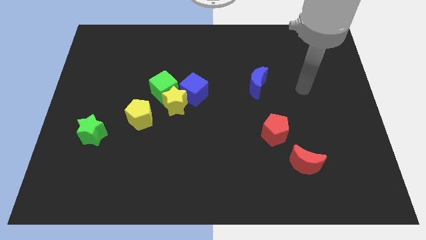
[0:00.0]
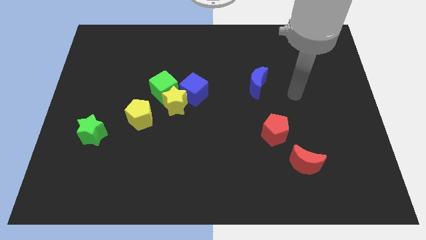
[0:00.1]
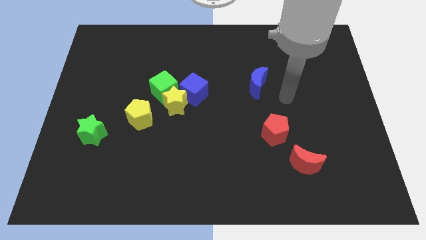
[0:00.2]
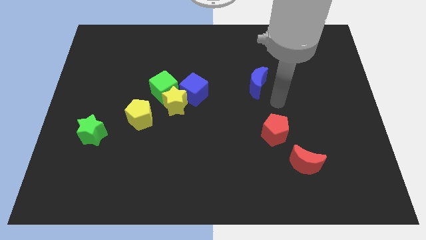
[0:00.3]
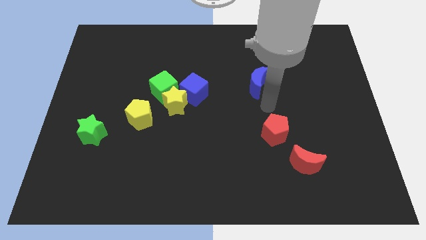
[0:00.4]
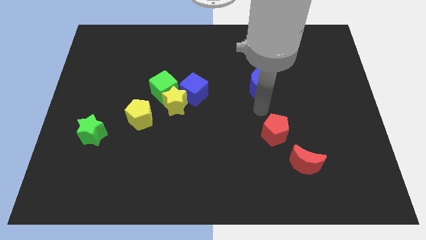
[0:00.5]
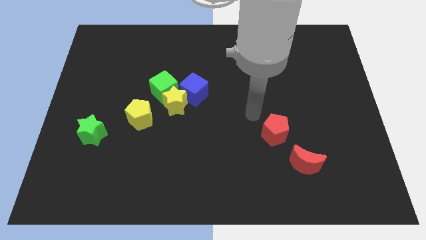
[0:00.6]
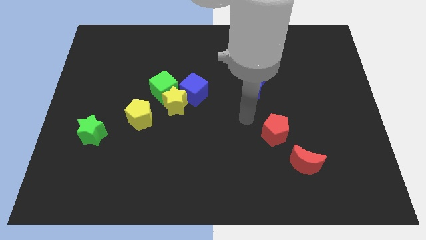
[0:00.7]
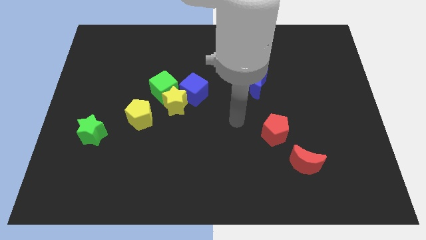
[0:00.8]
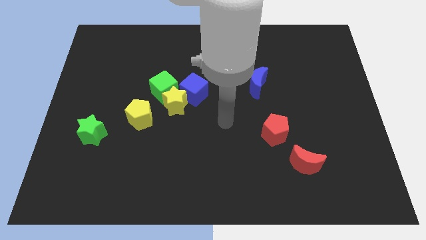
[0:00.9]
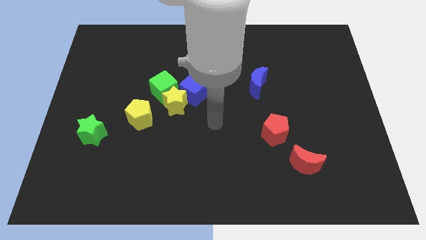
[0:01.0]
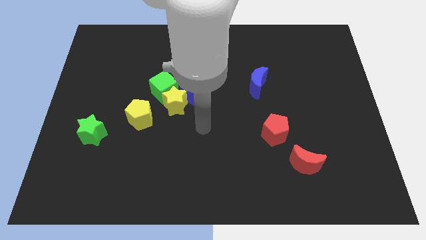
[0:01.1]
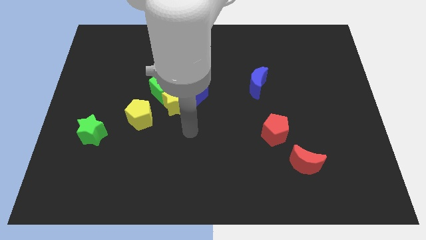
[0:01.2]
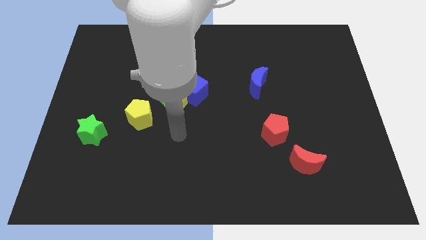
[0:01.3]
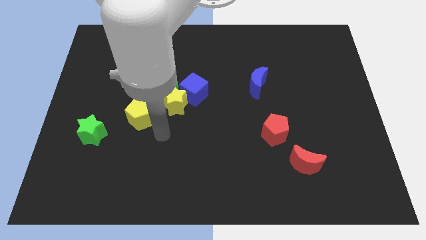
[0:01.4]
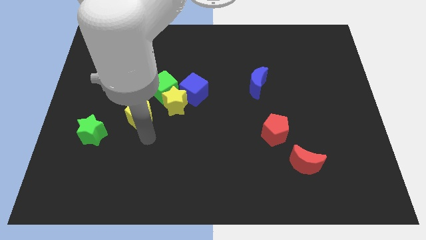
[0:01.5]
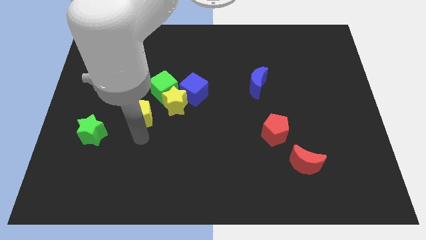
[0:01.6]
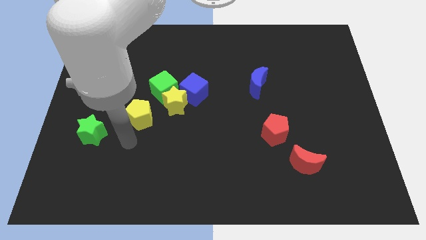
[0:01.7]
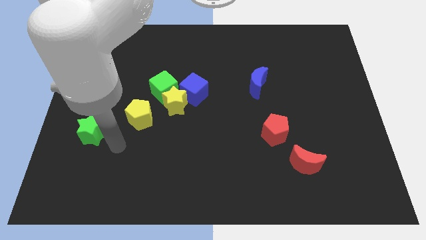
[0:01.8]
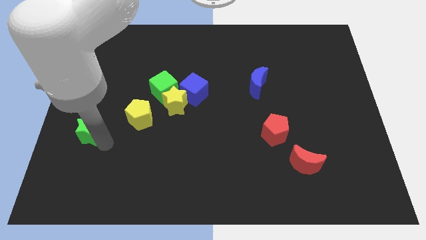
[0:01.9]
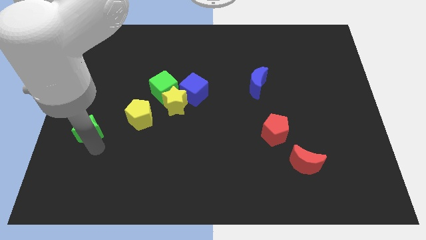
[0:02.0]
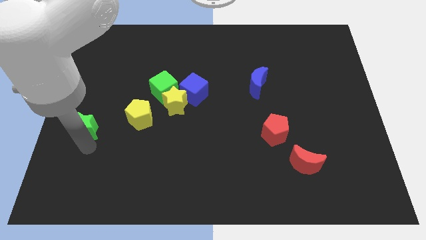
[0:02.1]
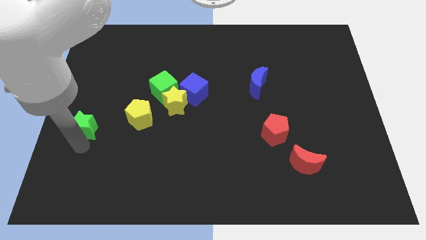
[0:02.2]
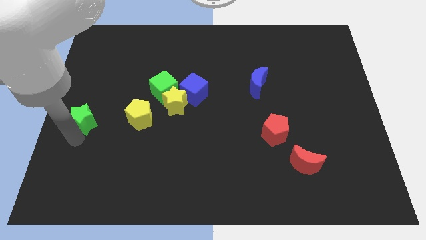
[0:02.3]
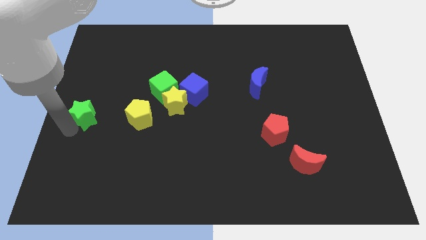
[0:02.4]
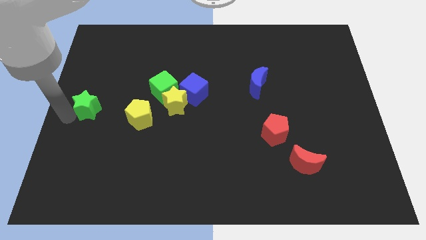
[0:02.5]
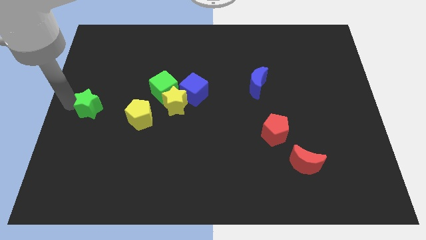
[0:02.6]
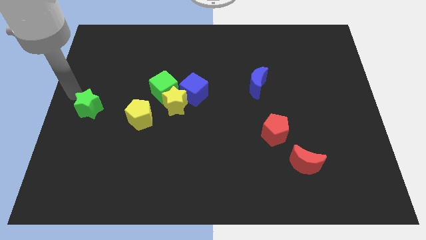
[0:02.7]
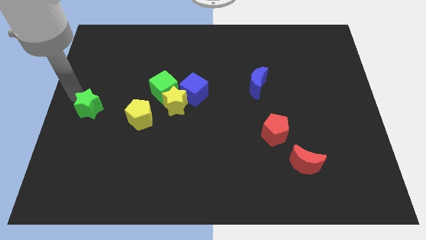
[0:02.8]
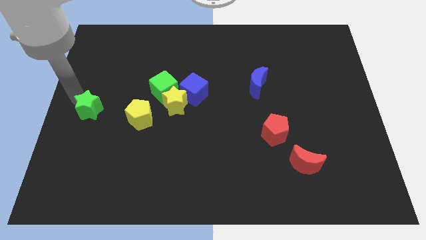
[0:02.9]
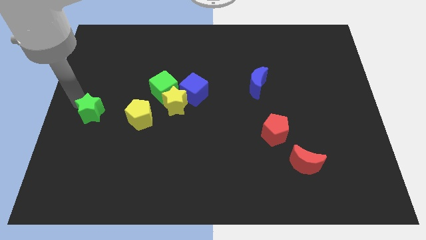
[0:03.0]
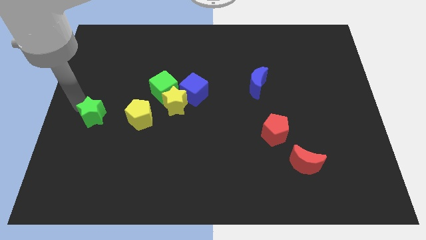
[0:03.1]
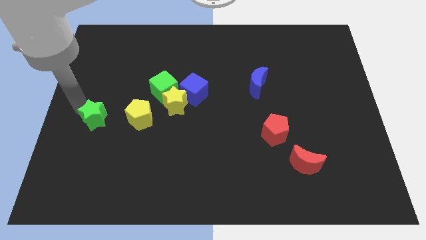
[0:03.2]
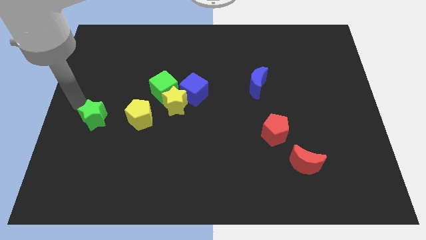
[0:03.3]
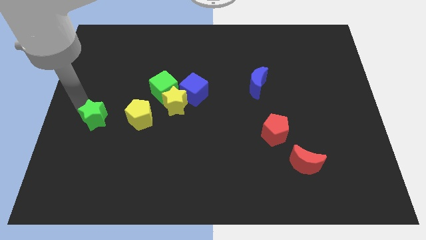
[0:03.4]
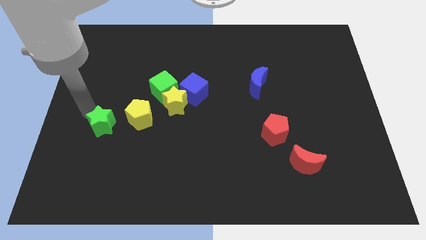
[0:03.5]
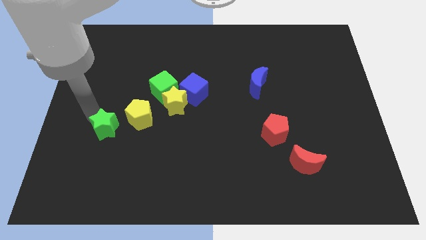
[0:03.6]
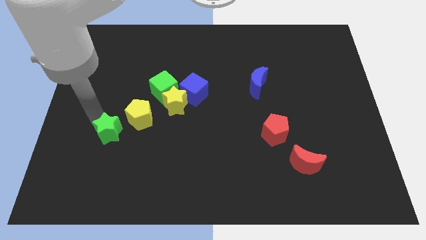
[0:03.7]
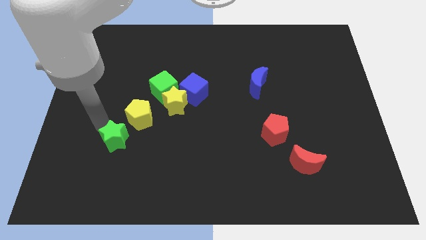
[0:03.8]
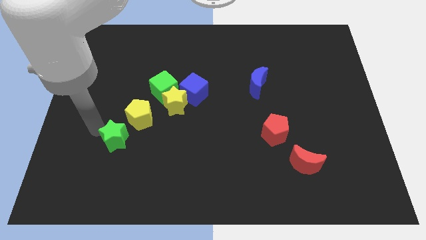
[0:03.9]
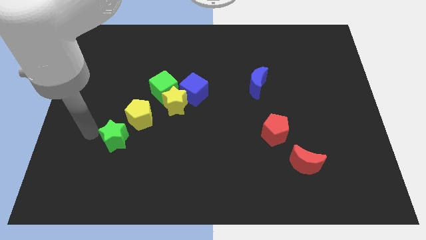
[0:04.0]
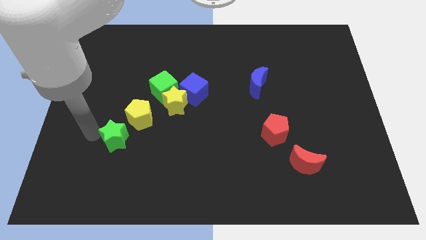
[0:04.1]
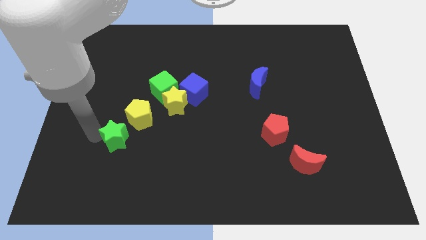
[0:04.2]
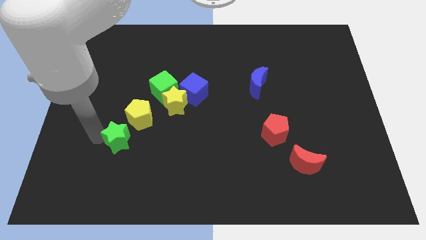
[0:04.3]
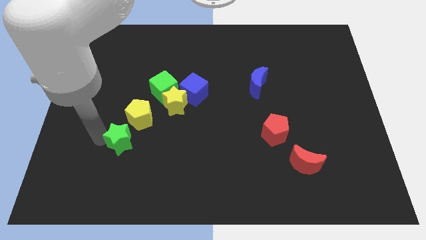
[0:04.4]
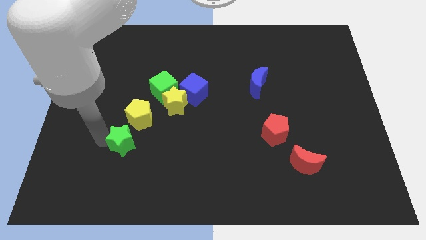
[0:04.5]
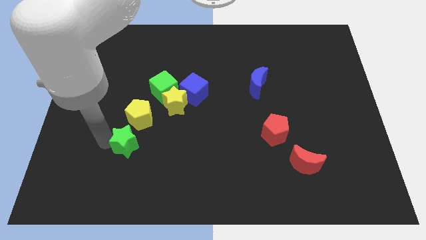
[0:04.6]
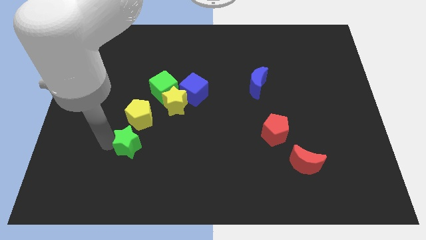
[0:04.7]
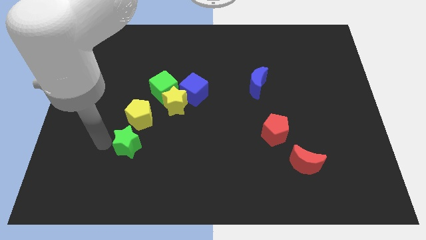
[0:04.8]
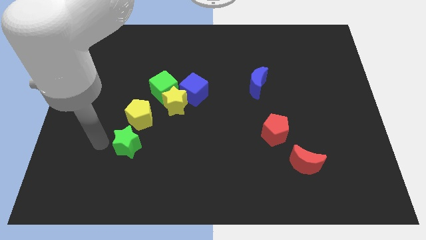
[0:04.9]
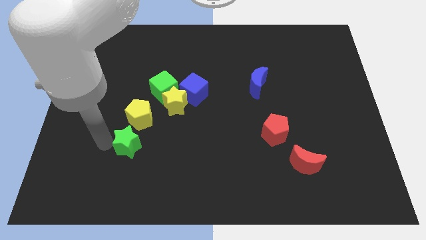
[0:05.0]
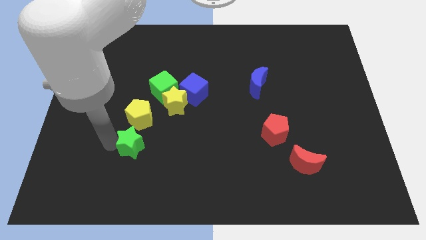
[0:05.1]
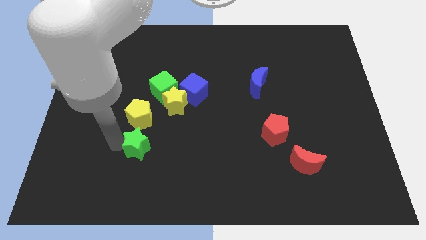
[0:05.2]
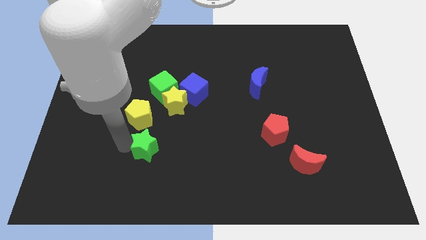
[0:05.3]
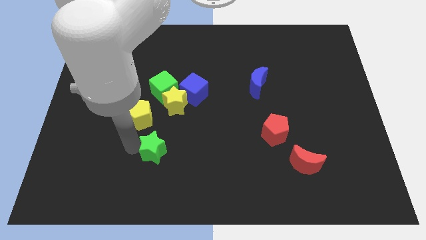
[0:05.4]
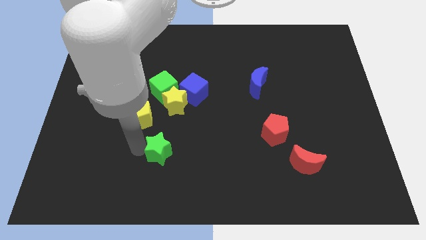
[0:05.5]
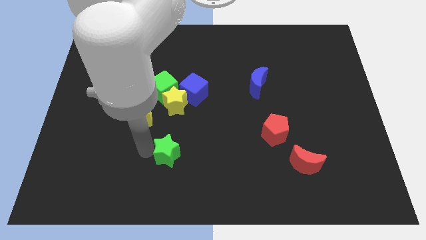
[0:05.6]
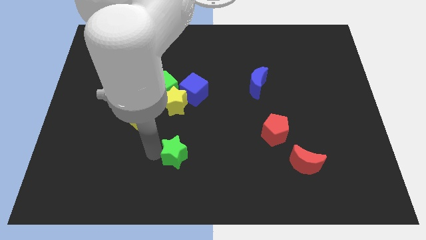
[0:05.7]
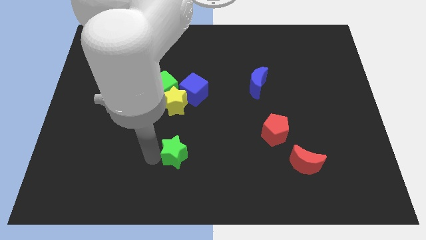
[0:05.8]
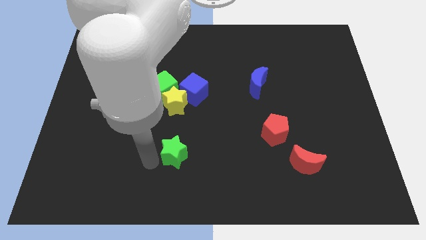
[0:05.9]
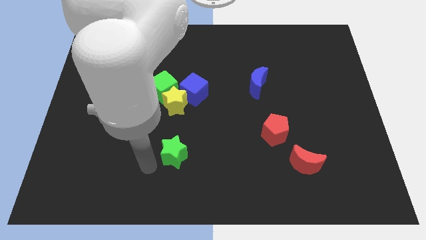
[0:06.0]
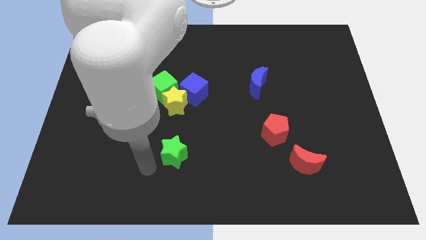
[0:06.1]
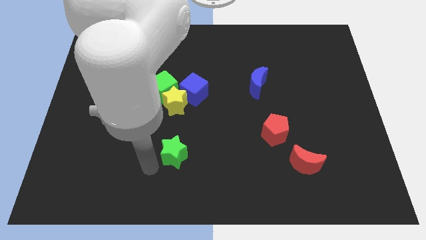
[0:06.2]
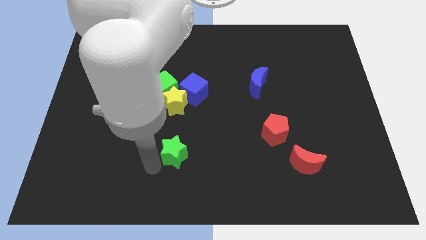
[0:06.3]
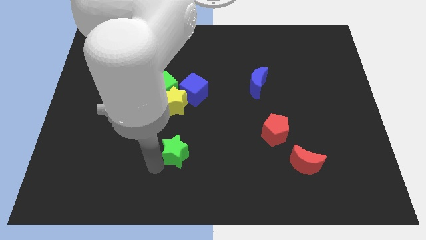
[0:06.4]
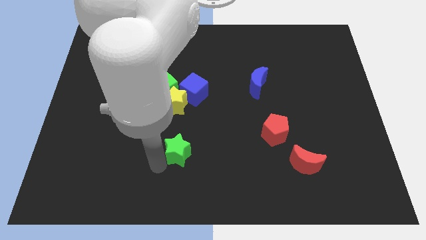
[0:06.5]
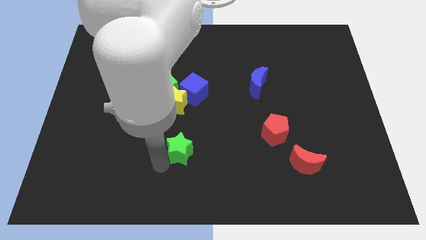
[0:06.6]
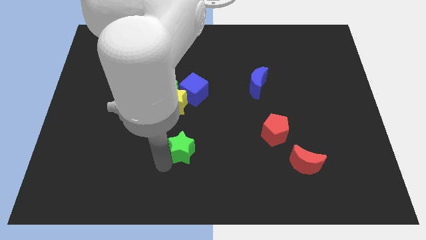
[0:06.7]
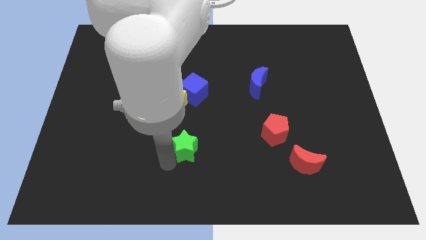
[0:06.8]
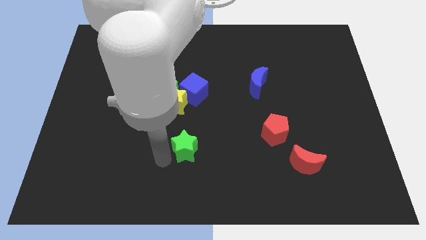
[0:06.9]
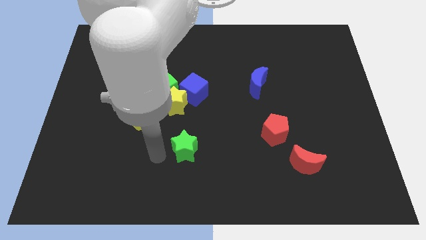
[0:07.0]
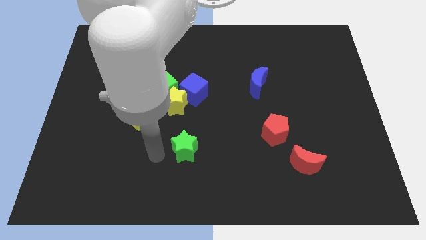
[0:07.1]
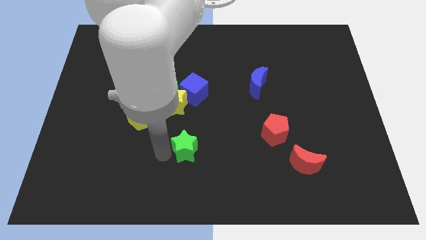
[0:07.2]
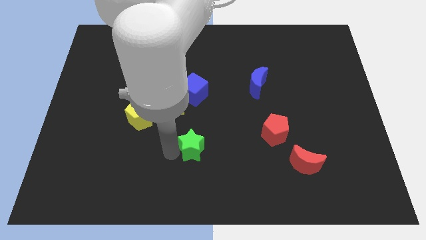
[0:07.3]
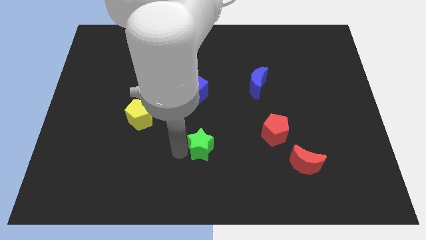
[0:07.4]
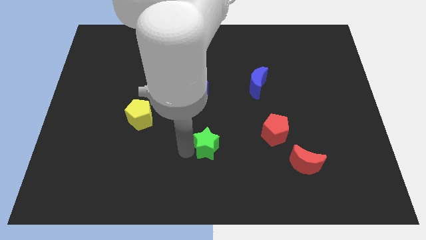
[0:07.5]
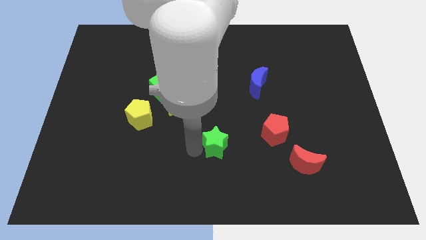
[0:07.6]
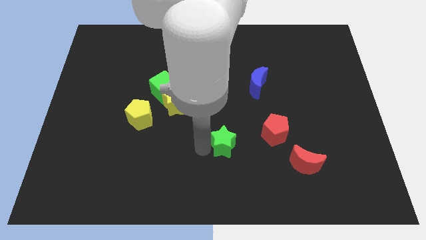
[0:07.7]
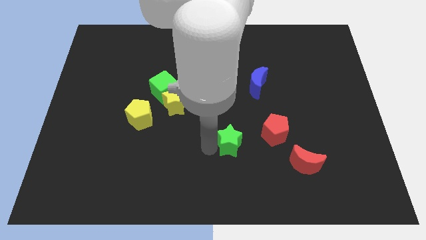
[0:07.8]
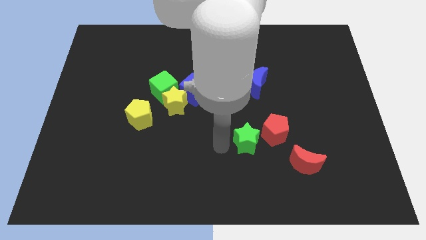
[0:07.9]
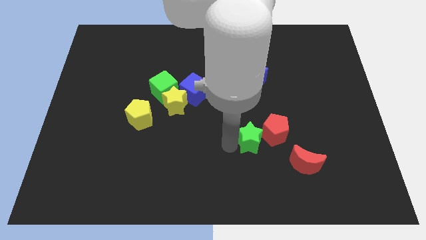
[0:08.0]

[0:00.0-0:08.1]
move the green star next to the red pentagon
